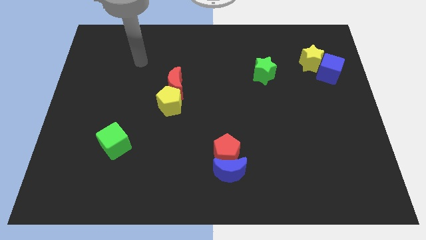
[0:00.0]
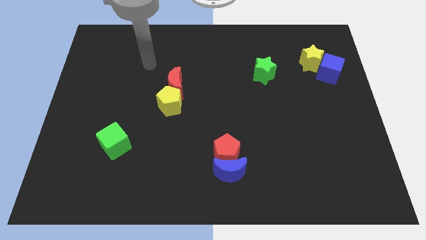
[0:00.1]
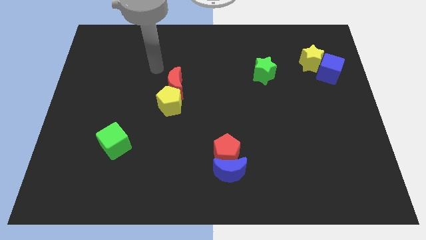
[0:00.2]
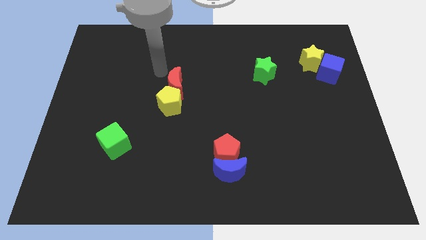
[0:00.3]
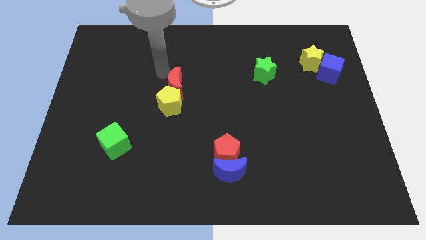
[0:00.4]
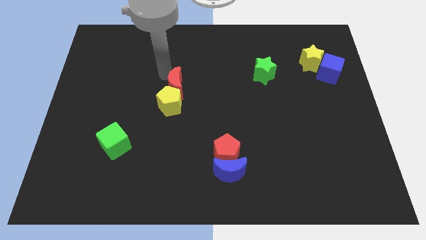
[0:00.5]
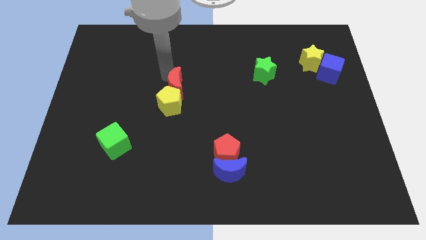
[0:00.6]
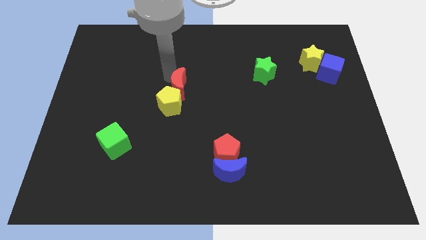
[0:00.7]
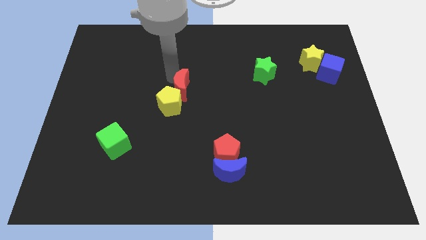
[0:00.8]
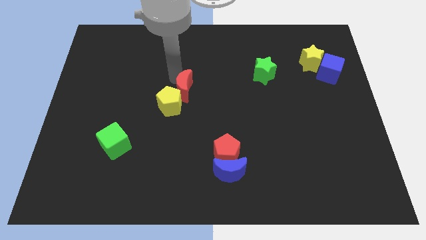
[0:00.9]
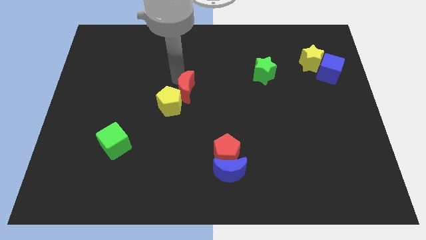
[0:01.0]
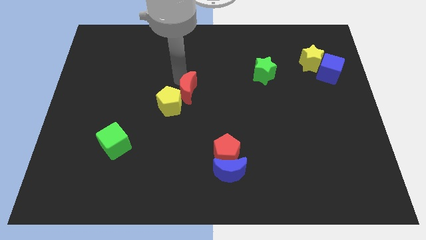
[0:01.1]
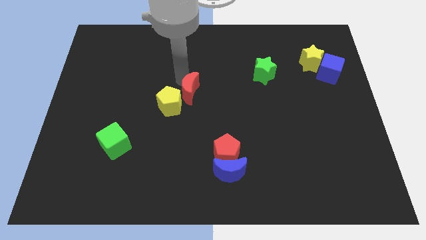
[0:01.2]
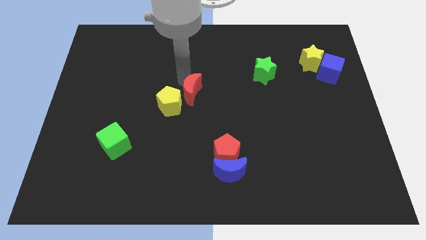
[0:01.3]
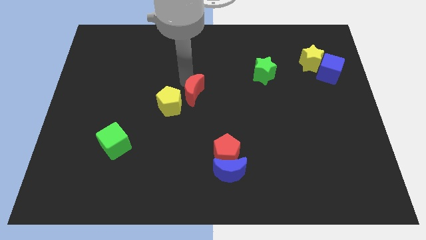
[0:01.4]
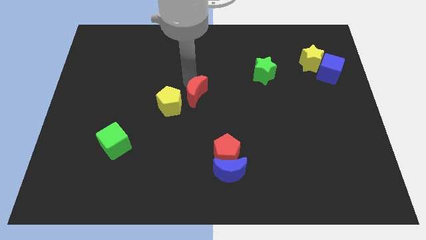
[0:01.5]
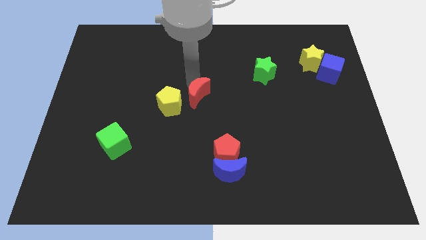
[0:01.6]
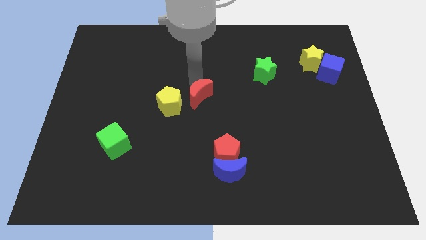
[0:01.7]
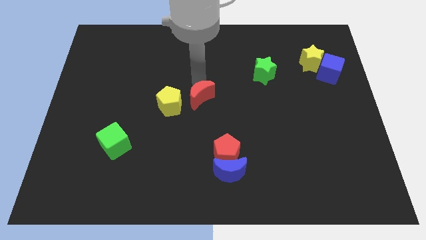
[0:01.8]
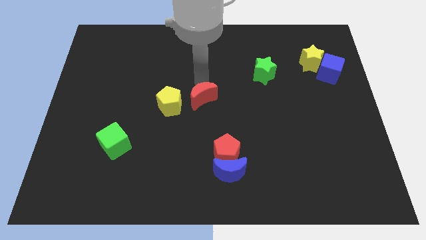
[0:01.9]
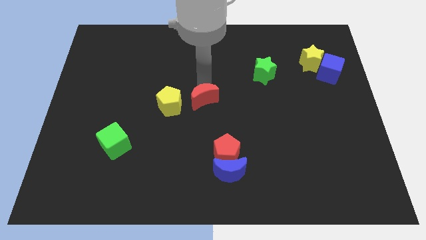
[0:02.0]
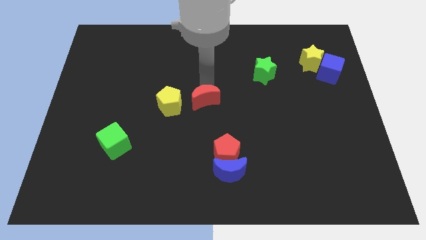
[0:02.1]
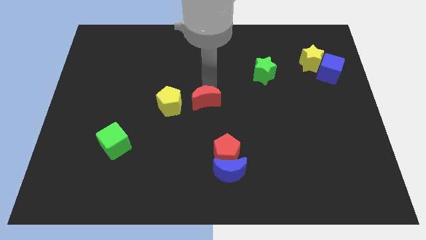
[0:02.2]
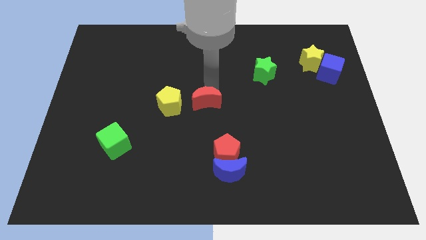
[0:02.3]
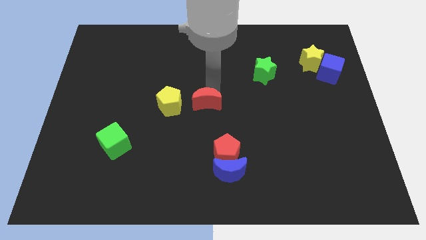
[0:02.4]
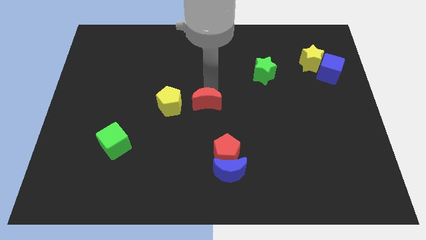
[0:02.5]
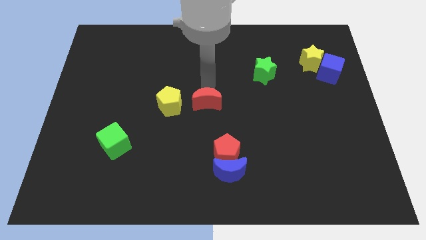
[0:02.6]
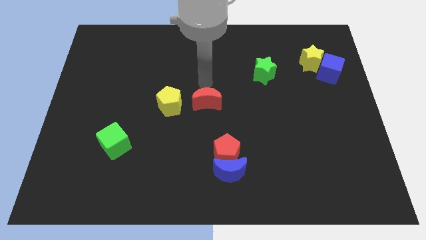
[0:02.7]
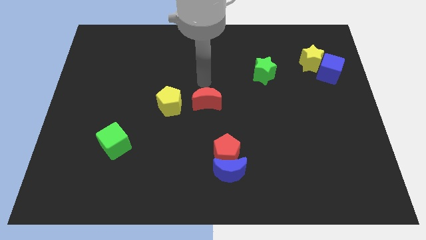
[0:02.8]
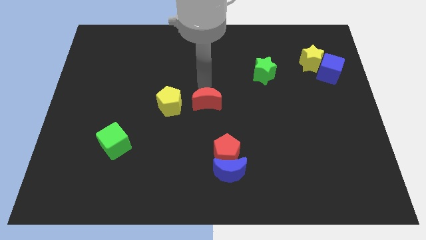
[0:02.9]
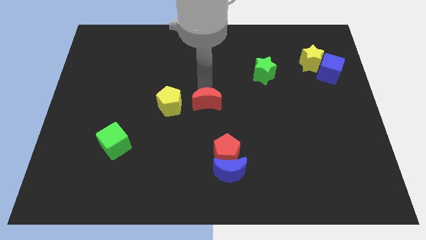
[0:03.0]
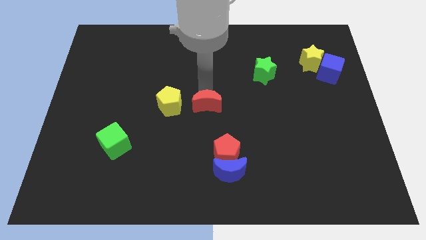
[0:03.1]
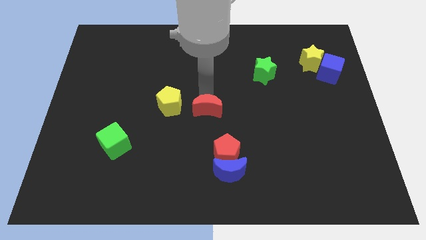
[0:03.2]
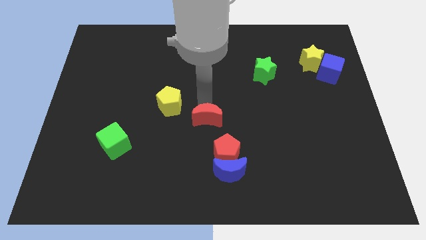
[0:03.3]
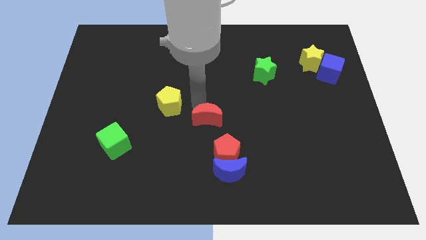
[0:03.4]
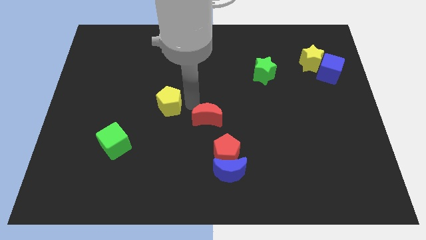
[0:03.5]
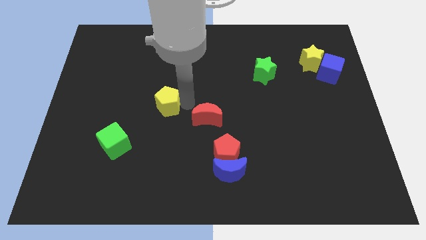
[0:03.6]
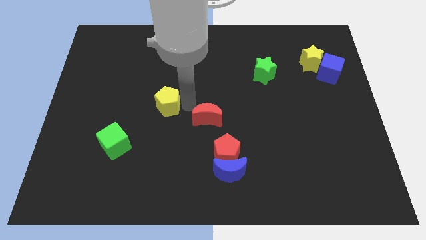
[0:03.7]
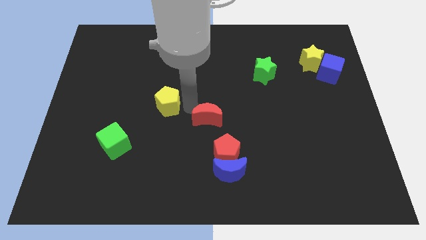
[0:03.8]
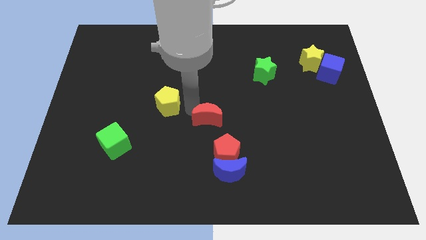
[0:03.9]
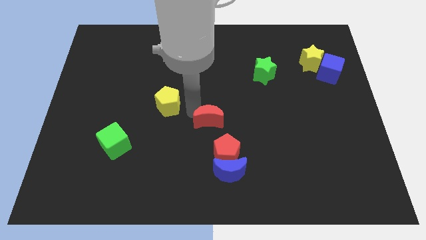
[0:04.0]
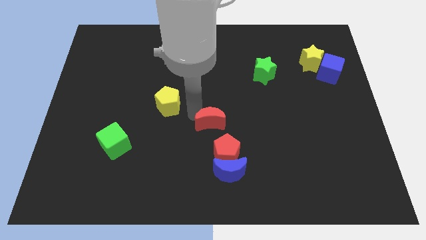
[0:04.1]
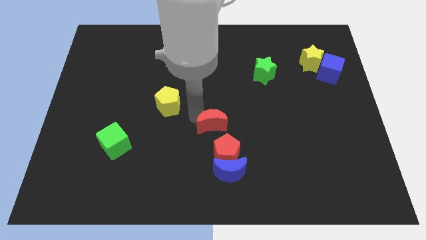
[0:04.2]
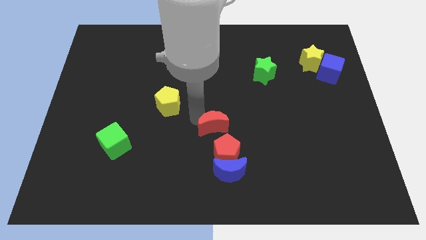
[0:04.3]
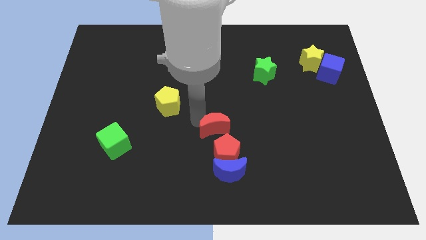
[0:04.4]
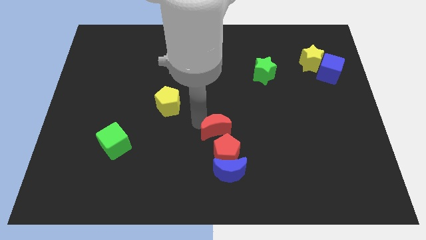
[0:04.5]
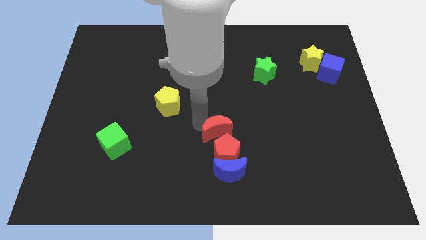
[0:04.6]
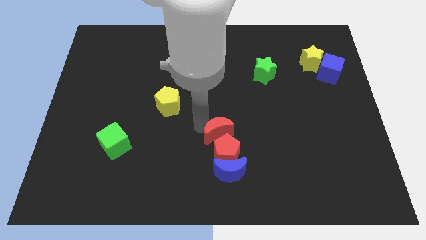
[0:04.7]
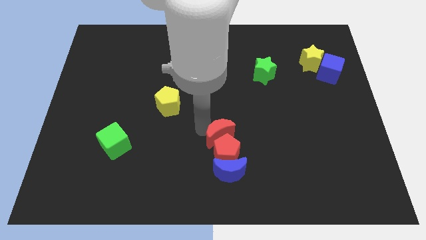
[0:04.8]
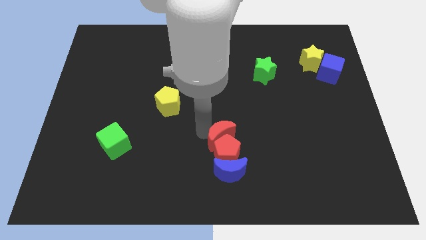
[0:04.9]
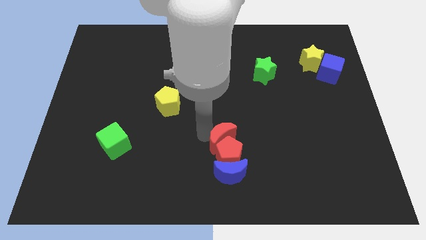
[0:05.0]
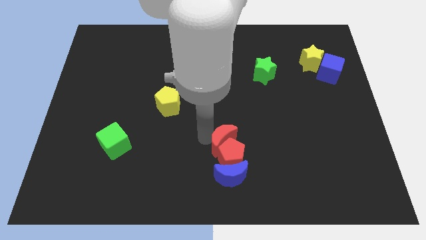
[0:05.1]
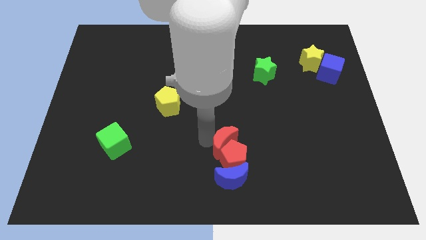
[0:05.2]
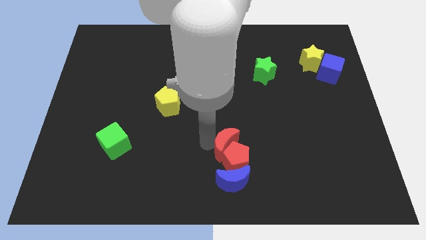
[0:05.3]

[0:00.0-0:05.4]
slide the red moon down and then to the right

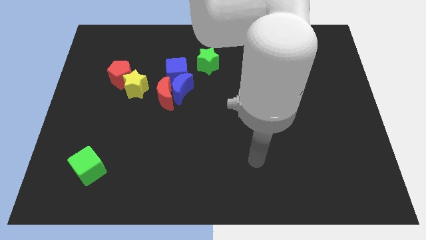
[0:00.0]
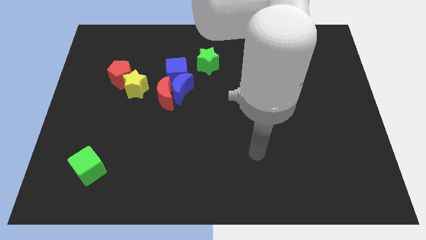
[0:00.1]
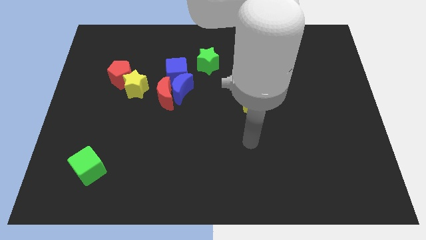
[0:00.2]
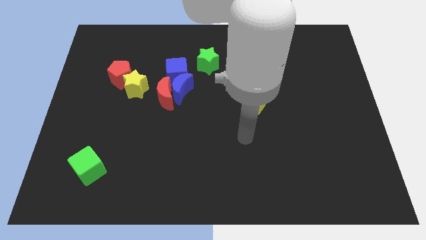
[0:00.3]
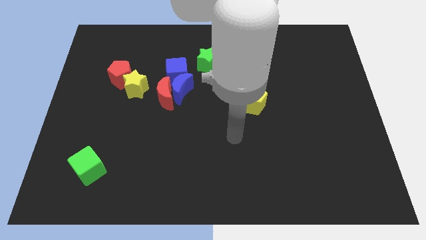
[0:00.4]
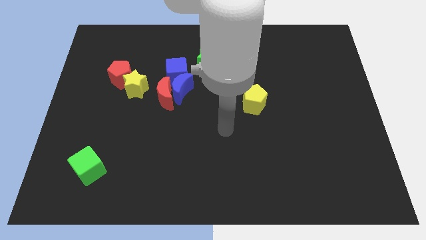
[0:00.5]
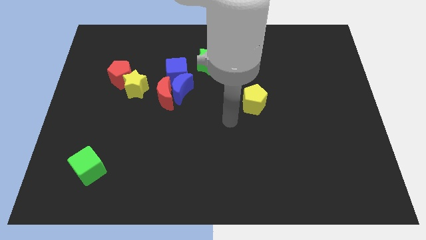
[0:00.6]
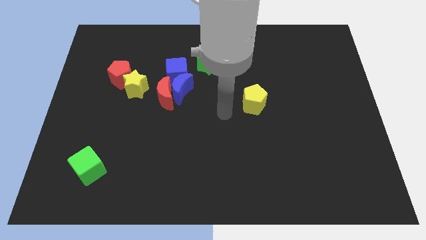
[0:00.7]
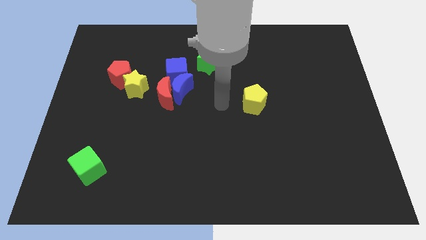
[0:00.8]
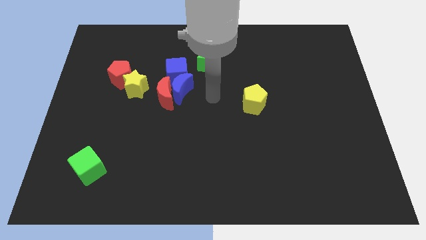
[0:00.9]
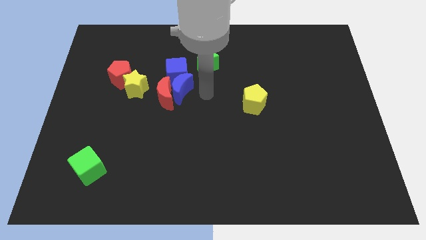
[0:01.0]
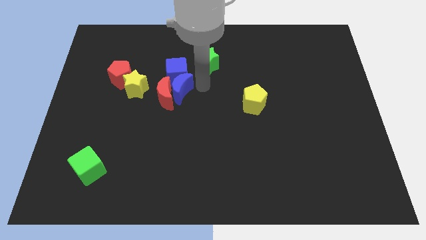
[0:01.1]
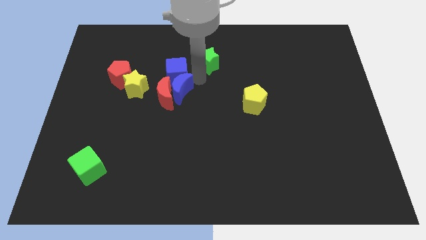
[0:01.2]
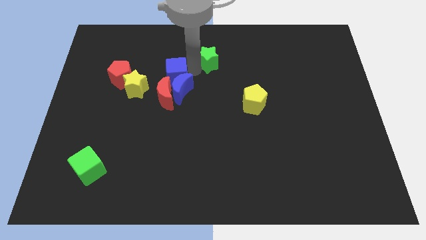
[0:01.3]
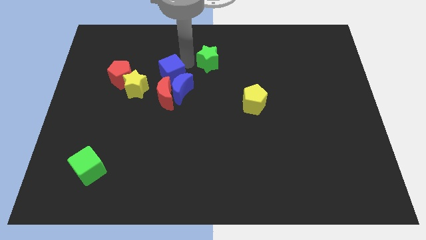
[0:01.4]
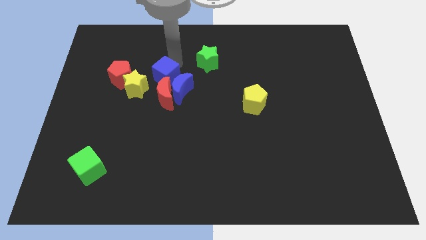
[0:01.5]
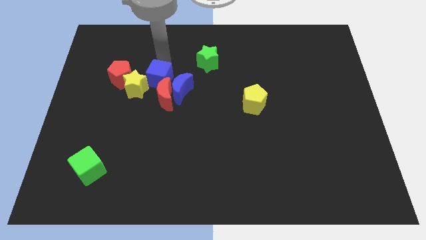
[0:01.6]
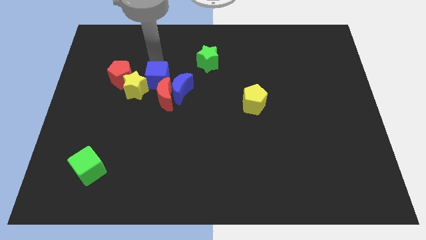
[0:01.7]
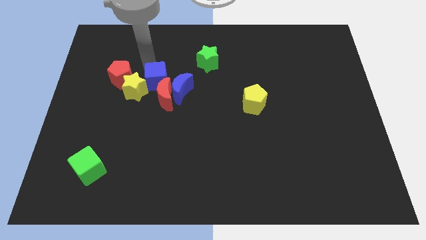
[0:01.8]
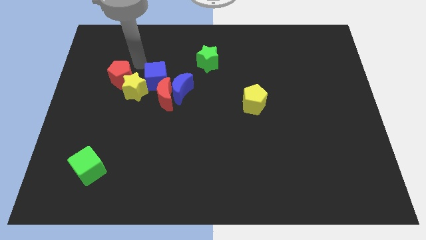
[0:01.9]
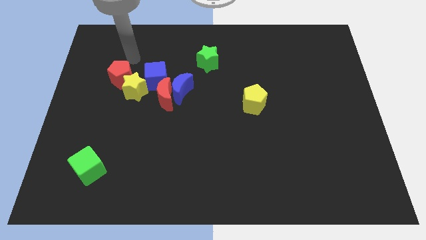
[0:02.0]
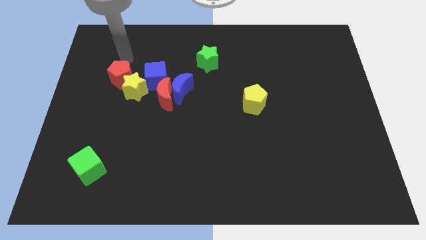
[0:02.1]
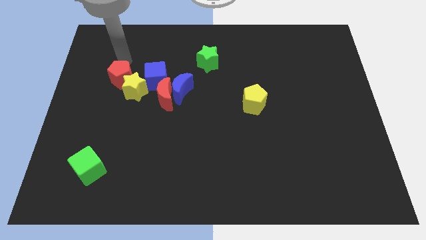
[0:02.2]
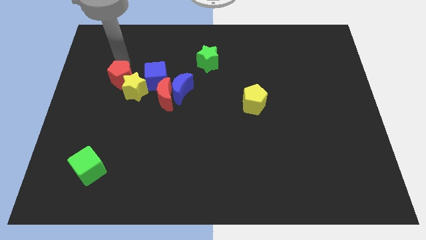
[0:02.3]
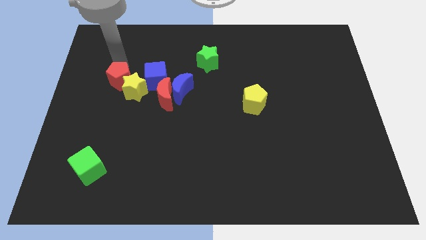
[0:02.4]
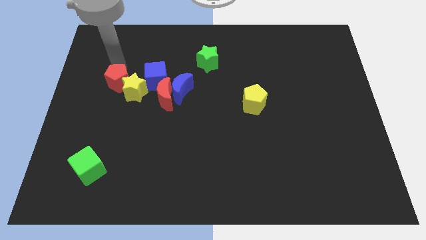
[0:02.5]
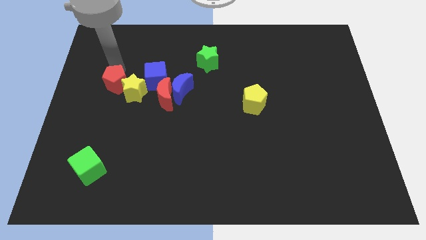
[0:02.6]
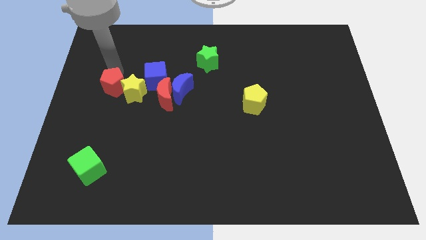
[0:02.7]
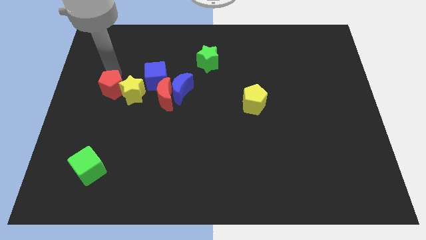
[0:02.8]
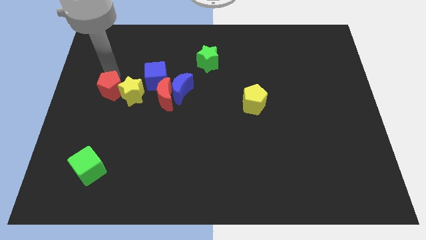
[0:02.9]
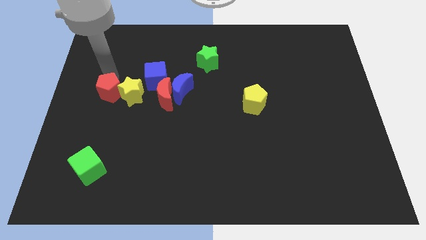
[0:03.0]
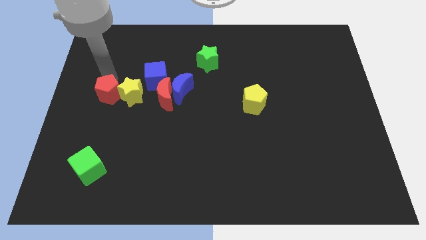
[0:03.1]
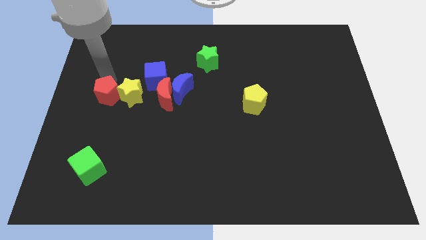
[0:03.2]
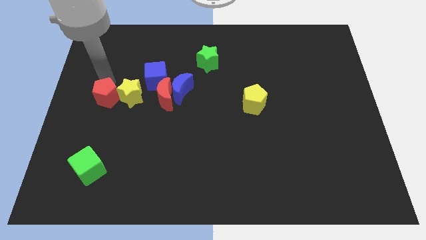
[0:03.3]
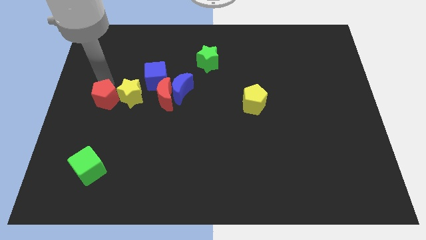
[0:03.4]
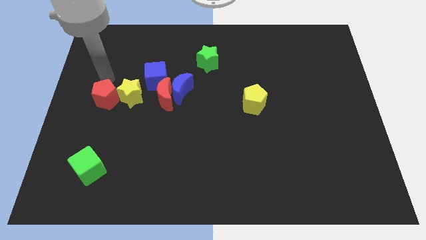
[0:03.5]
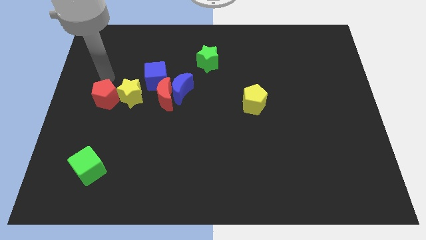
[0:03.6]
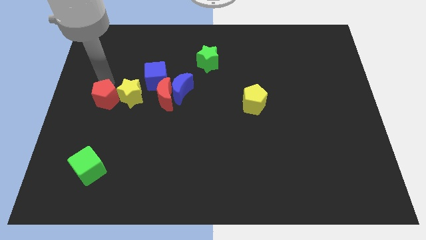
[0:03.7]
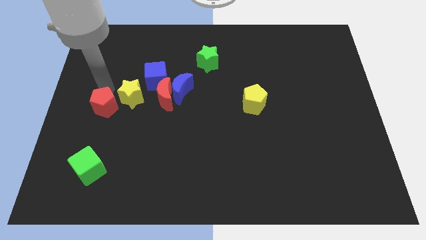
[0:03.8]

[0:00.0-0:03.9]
push the red pentagon down somewhat
